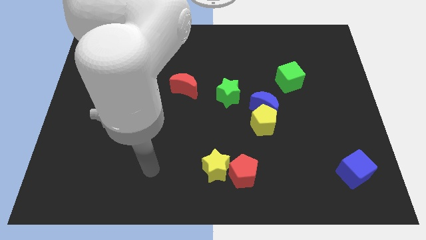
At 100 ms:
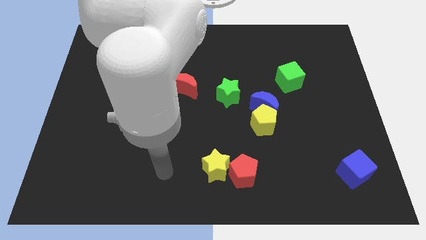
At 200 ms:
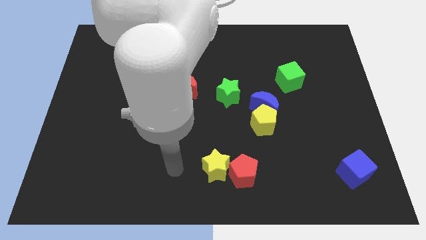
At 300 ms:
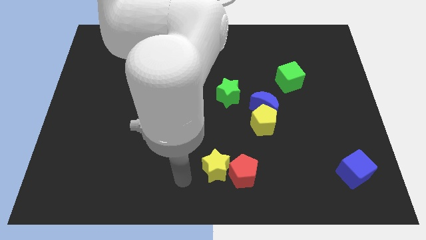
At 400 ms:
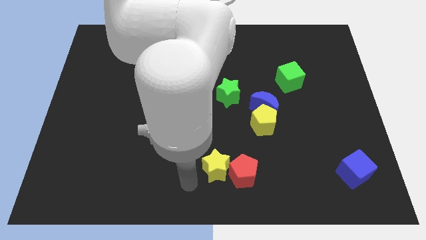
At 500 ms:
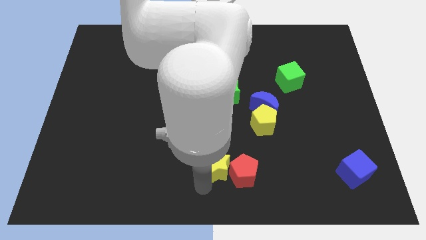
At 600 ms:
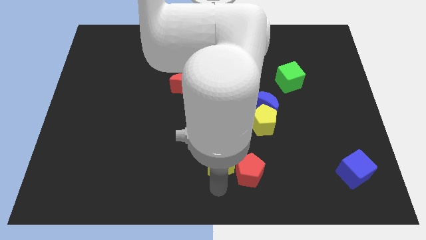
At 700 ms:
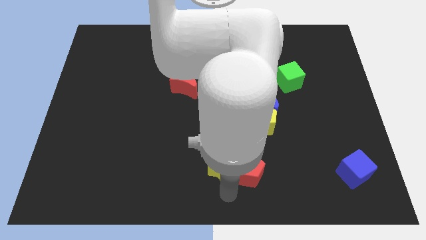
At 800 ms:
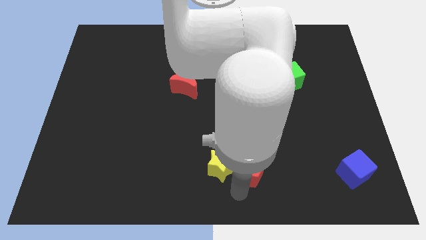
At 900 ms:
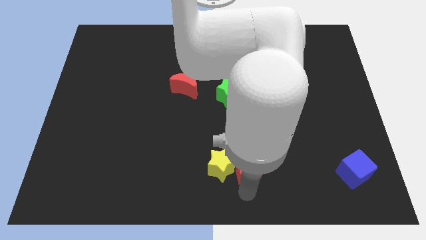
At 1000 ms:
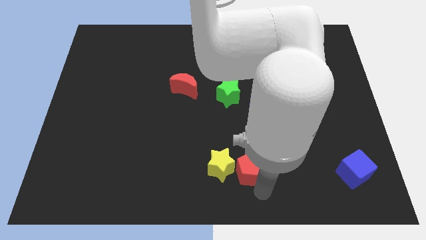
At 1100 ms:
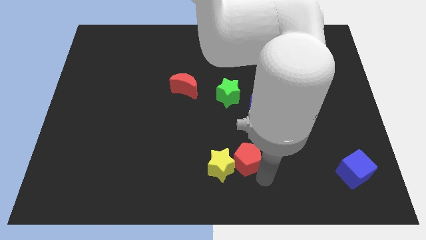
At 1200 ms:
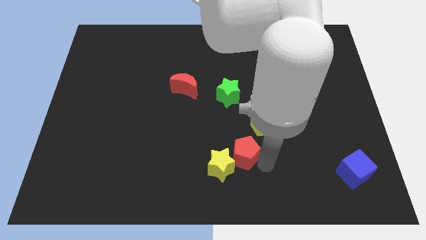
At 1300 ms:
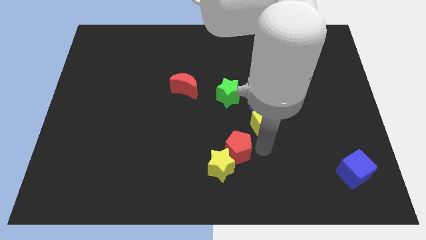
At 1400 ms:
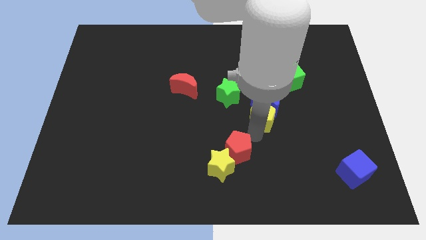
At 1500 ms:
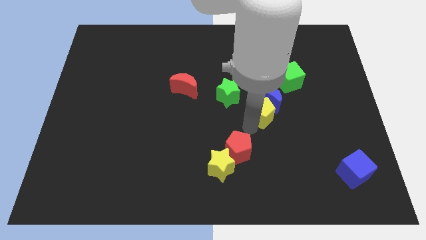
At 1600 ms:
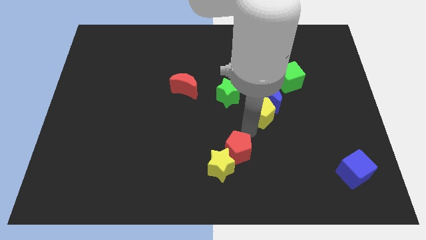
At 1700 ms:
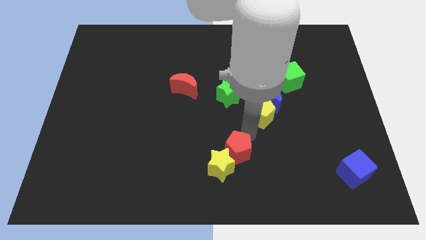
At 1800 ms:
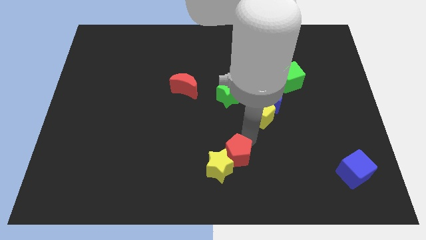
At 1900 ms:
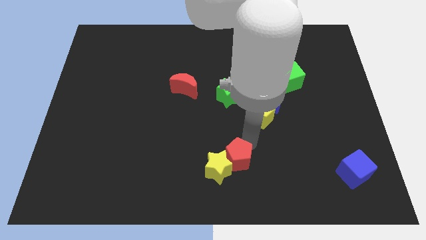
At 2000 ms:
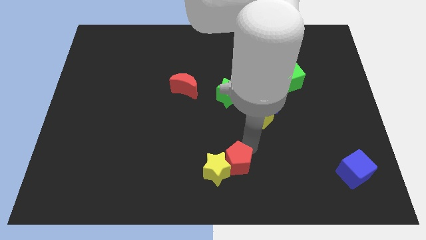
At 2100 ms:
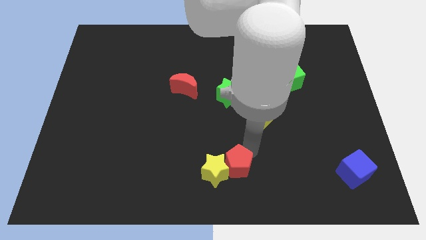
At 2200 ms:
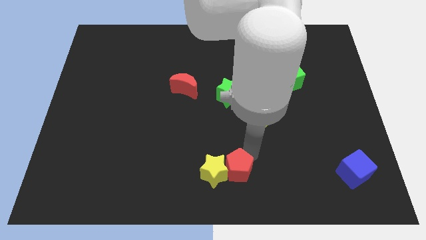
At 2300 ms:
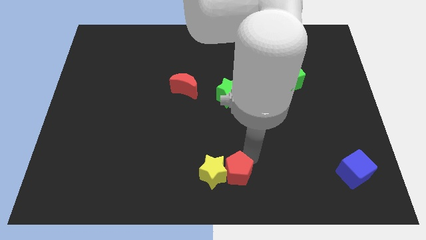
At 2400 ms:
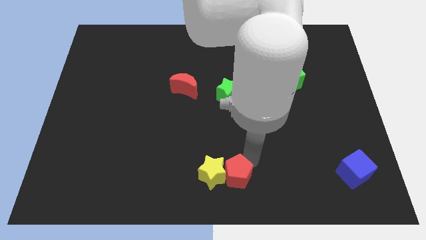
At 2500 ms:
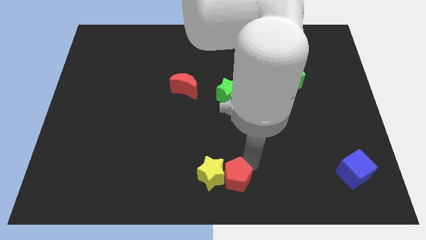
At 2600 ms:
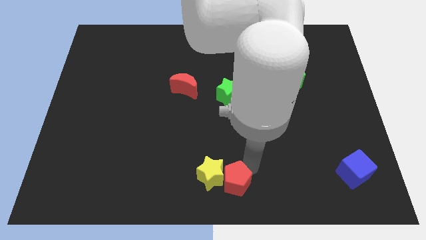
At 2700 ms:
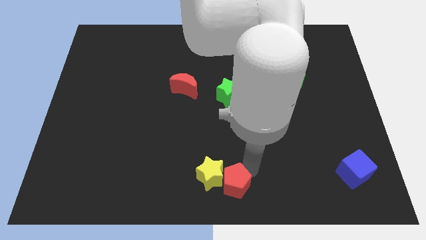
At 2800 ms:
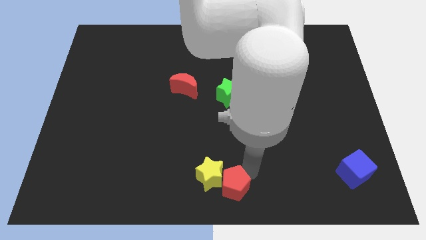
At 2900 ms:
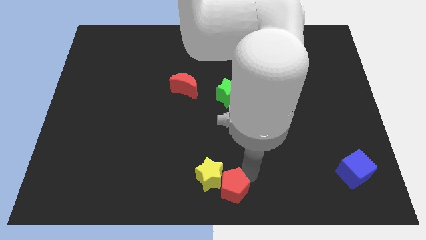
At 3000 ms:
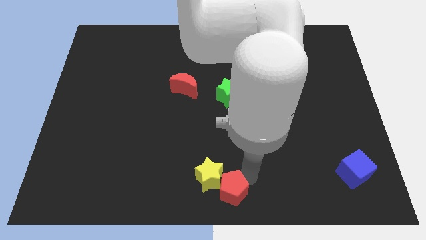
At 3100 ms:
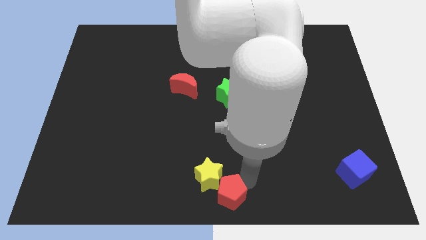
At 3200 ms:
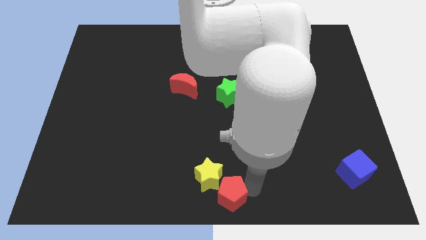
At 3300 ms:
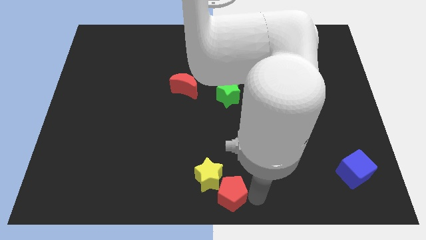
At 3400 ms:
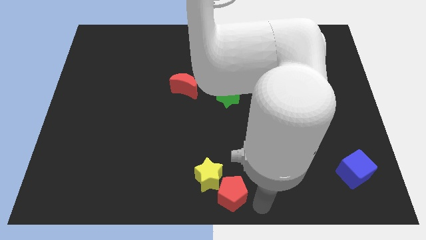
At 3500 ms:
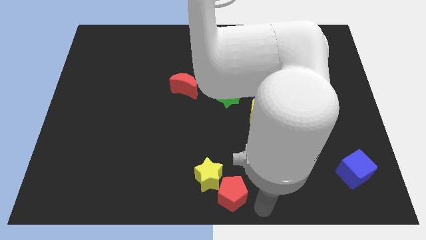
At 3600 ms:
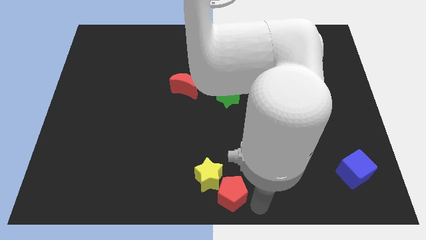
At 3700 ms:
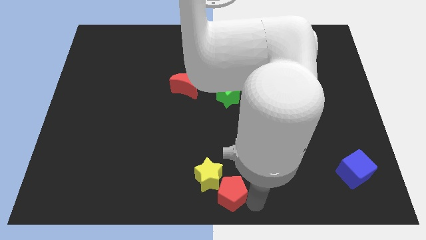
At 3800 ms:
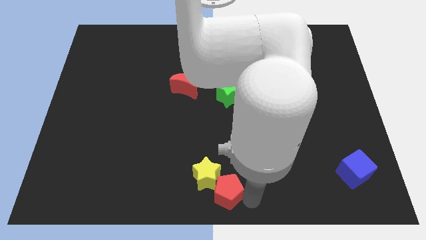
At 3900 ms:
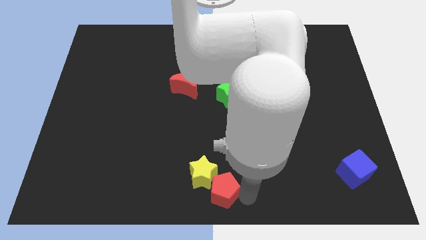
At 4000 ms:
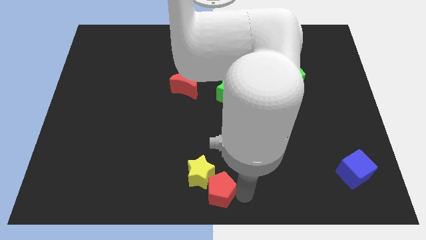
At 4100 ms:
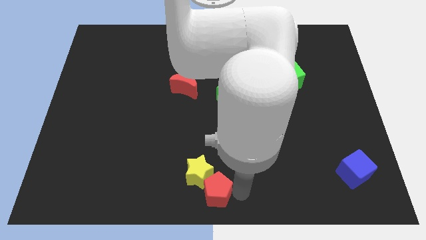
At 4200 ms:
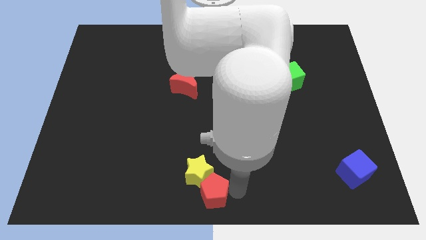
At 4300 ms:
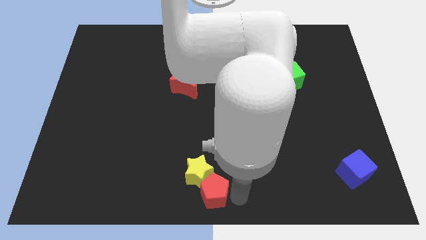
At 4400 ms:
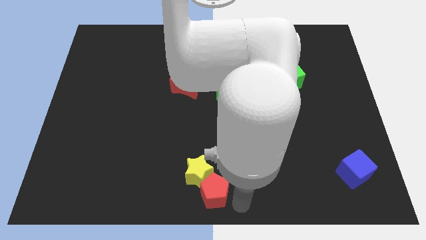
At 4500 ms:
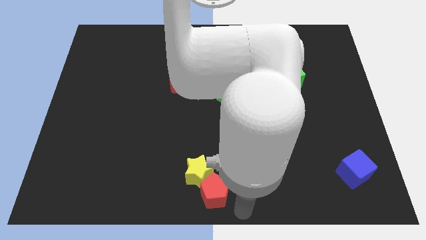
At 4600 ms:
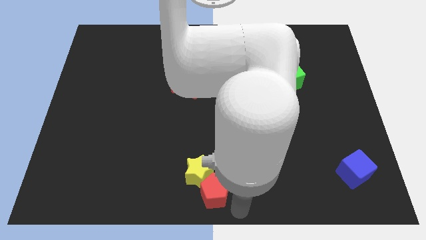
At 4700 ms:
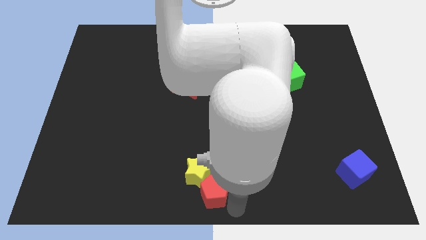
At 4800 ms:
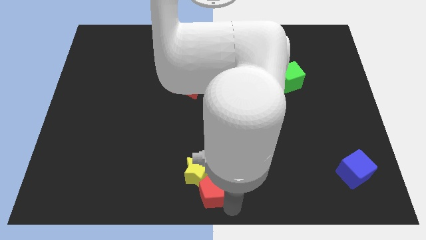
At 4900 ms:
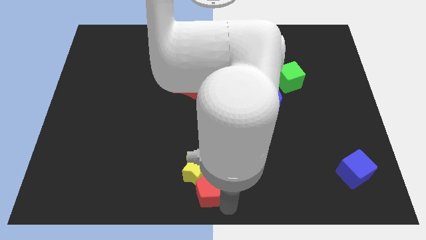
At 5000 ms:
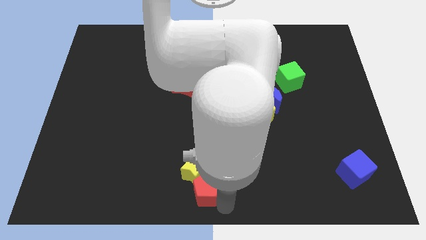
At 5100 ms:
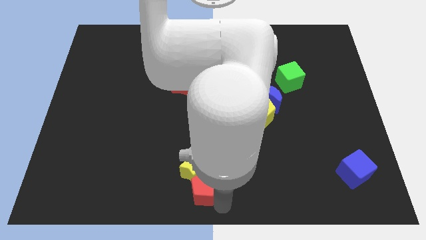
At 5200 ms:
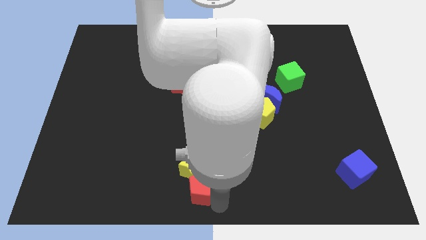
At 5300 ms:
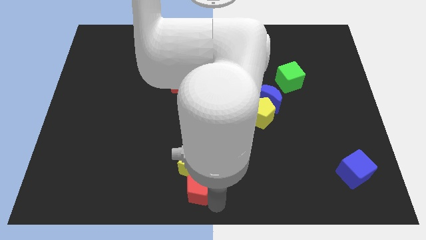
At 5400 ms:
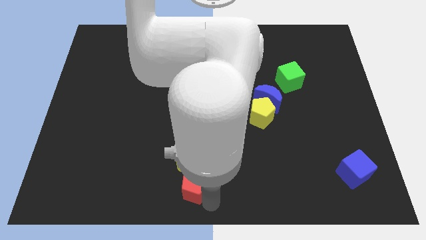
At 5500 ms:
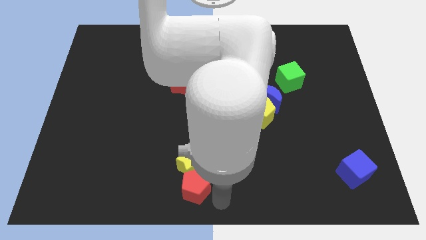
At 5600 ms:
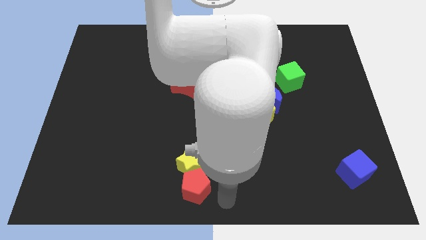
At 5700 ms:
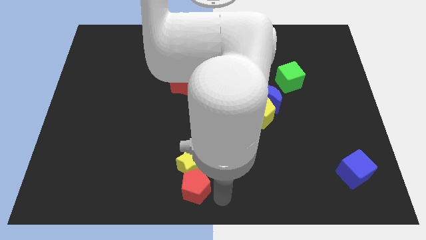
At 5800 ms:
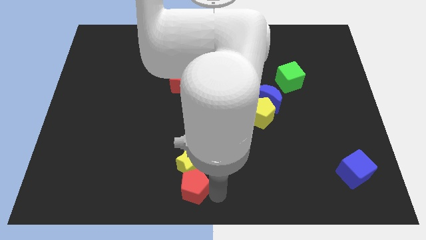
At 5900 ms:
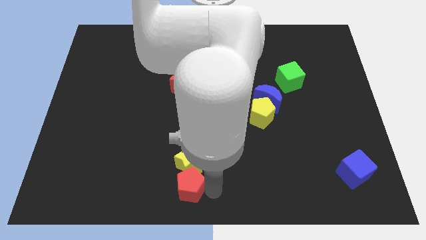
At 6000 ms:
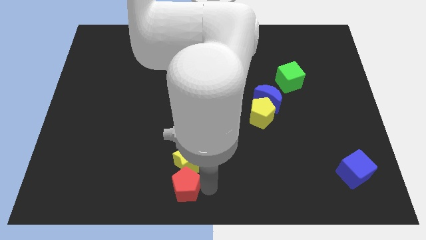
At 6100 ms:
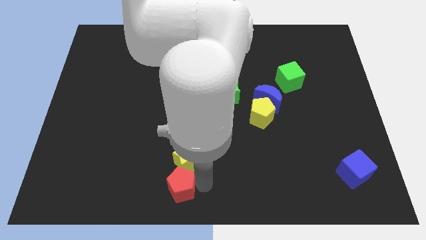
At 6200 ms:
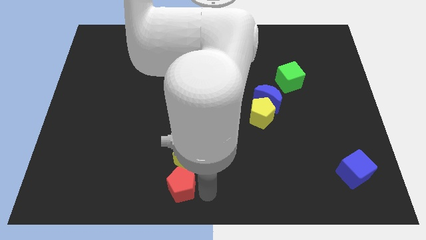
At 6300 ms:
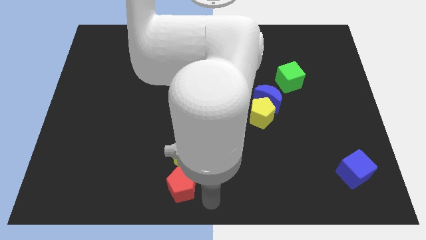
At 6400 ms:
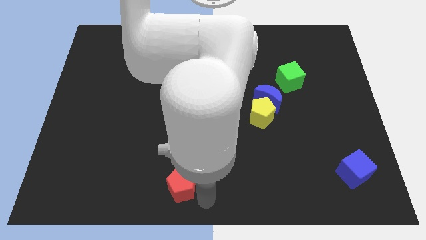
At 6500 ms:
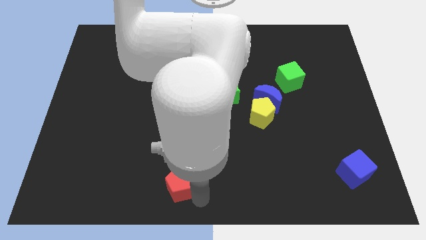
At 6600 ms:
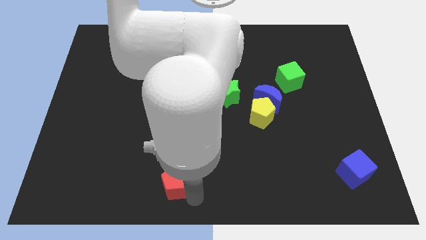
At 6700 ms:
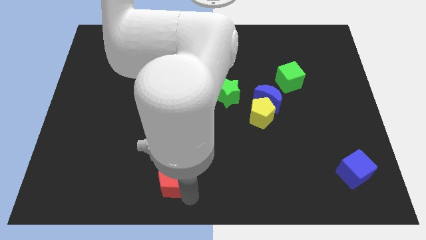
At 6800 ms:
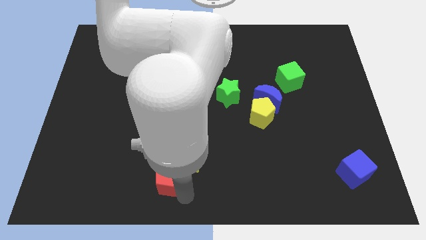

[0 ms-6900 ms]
put the red pentagon to the left of the yellow star
